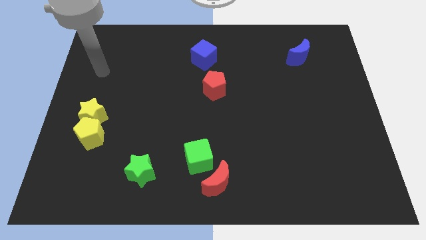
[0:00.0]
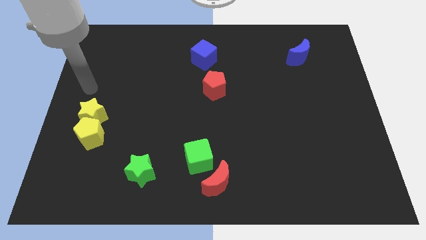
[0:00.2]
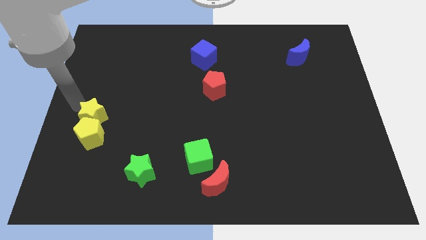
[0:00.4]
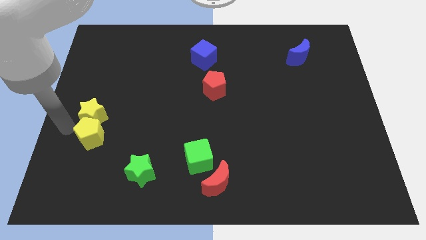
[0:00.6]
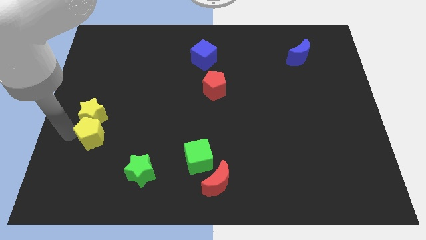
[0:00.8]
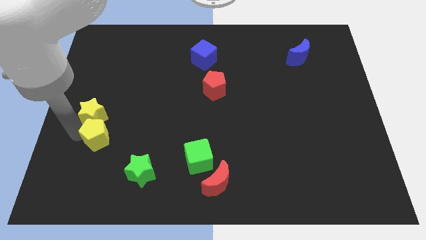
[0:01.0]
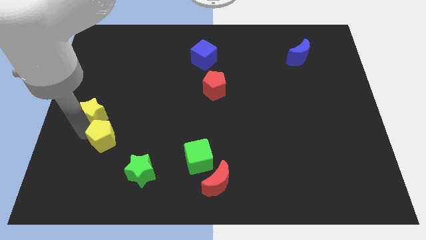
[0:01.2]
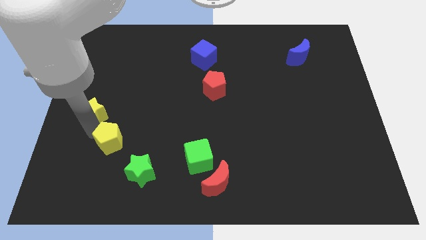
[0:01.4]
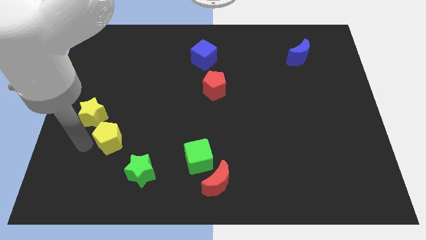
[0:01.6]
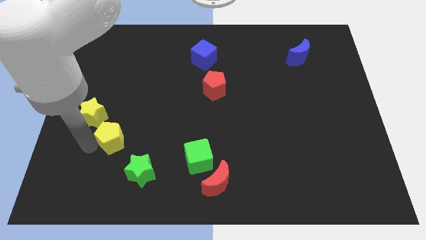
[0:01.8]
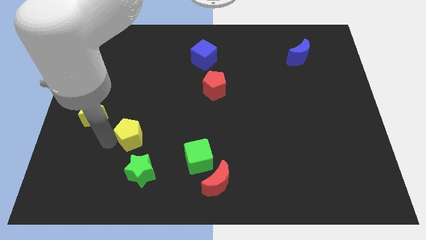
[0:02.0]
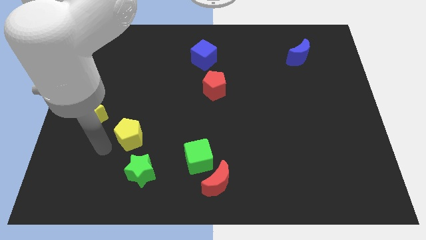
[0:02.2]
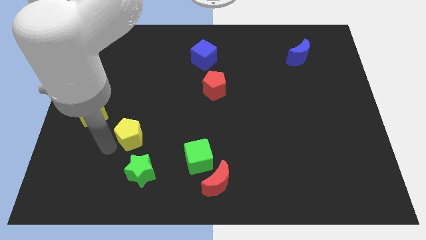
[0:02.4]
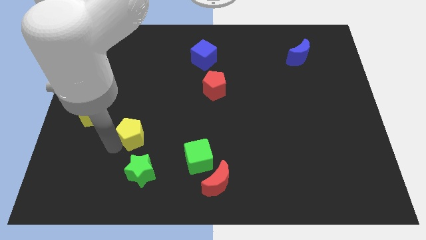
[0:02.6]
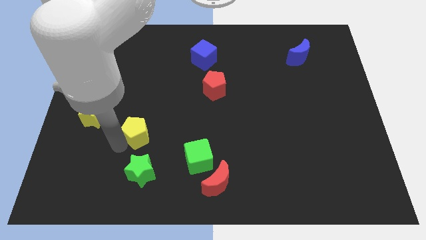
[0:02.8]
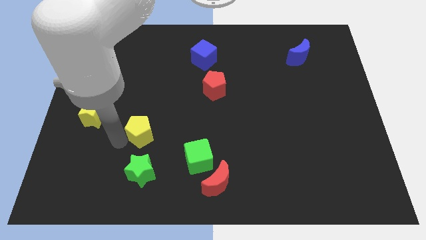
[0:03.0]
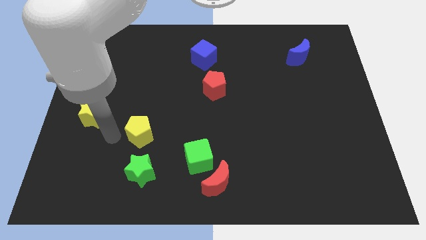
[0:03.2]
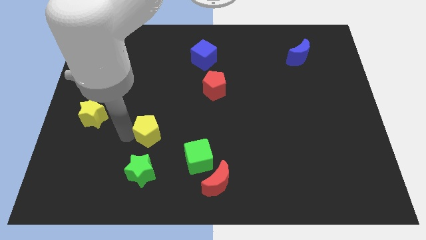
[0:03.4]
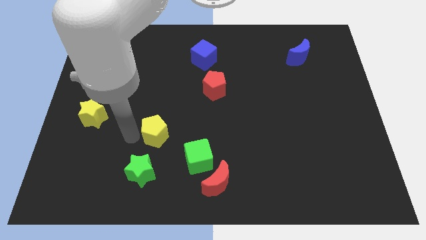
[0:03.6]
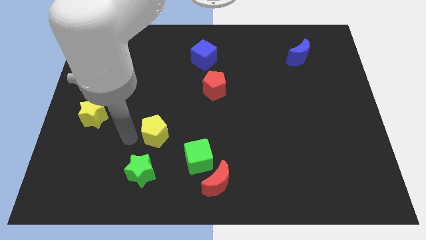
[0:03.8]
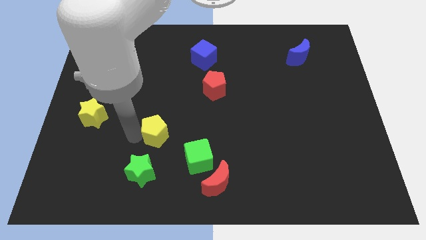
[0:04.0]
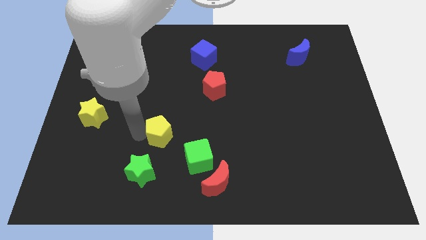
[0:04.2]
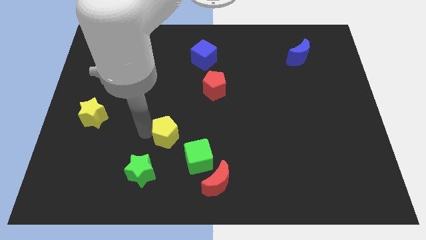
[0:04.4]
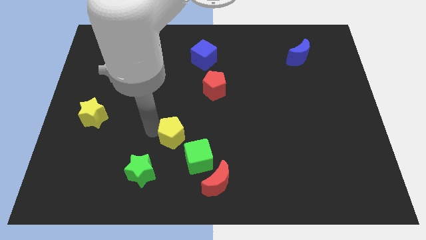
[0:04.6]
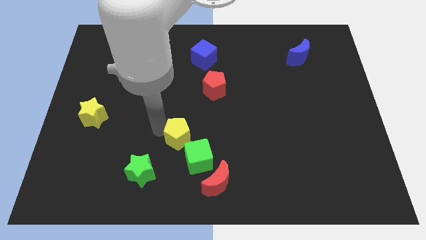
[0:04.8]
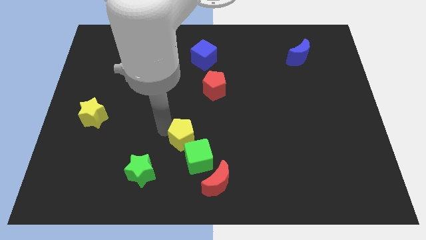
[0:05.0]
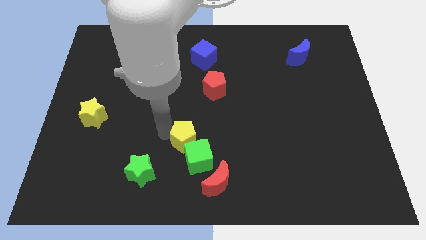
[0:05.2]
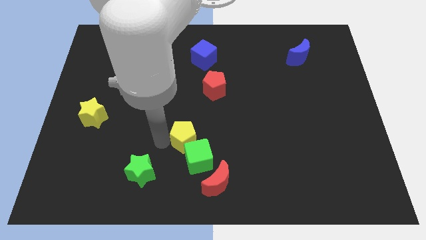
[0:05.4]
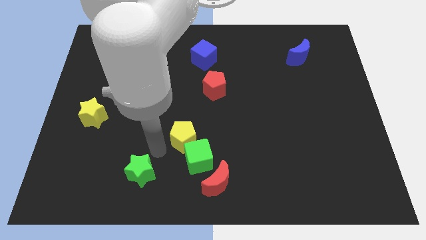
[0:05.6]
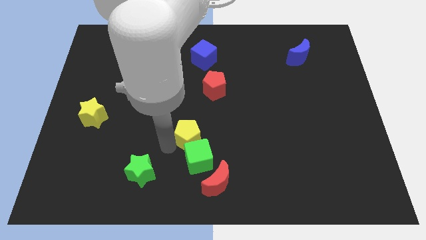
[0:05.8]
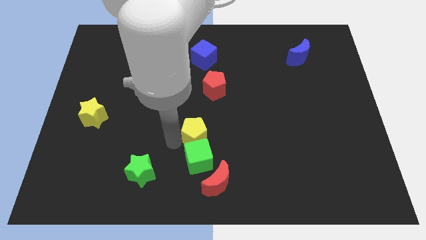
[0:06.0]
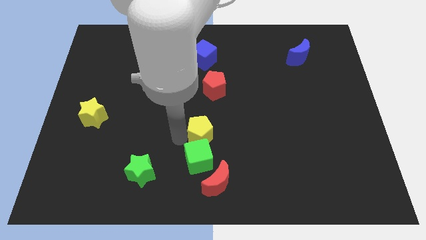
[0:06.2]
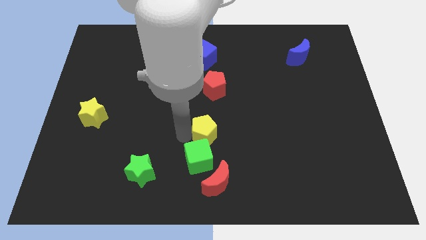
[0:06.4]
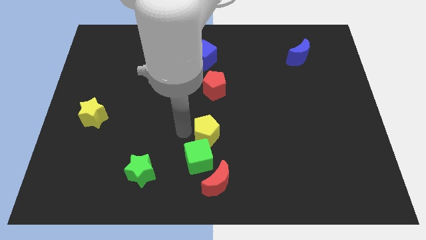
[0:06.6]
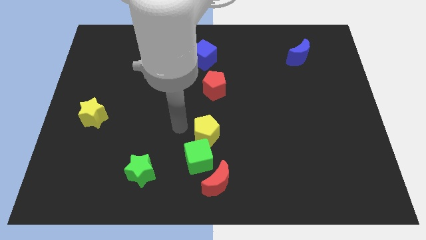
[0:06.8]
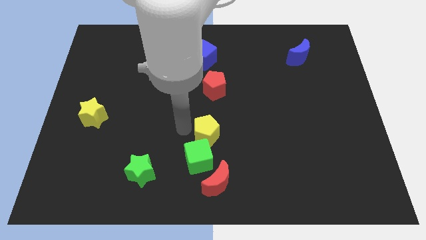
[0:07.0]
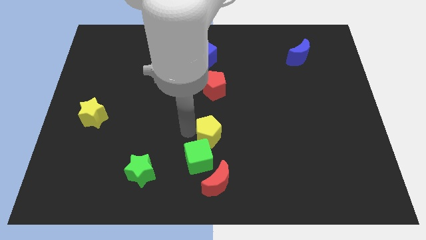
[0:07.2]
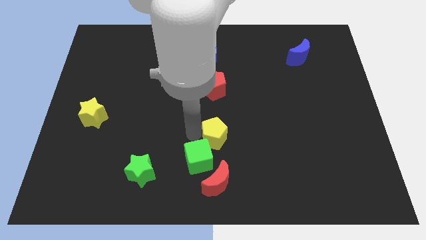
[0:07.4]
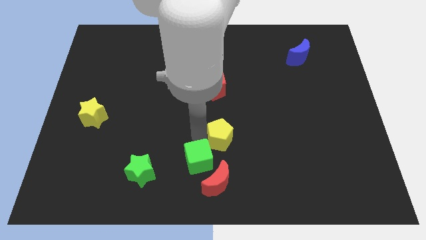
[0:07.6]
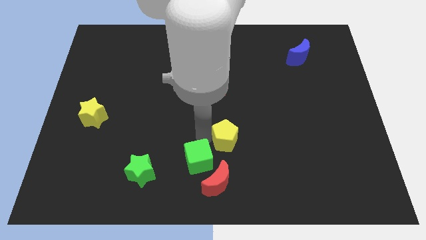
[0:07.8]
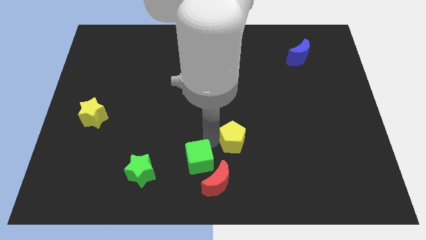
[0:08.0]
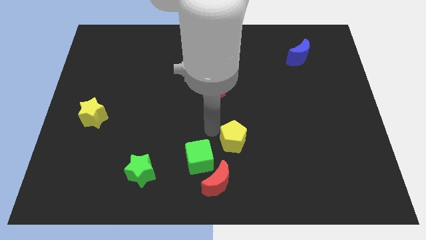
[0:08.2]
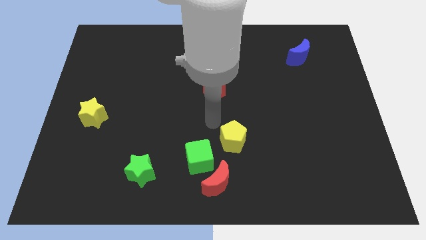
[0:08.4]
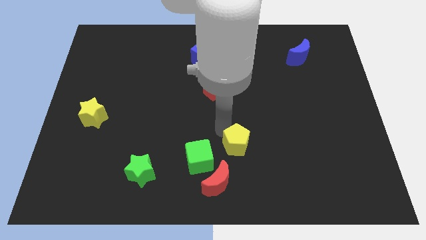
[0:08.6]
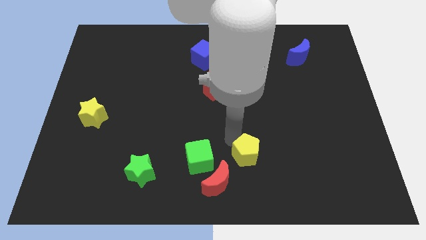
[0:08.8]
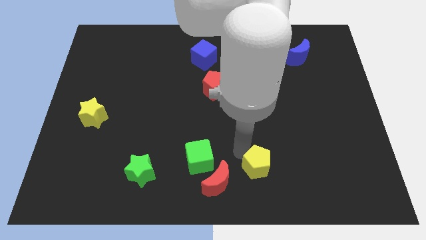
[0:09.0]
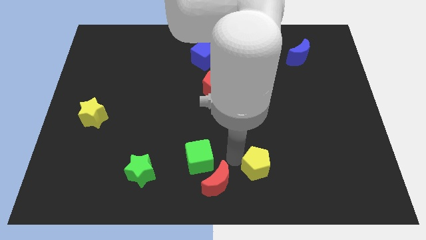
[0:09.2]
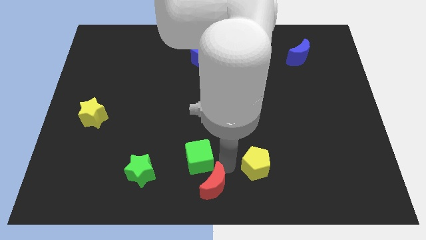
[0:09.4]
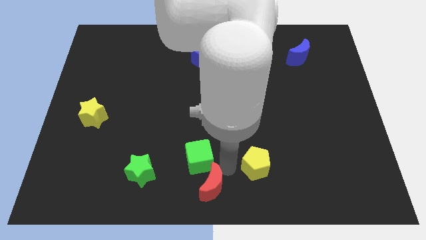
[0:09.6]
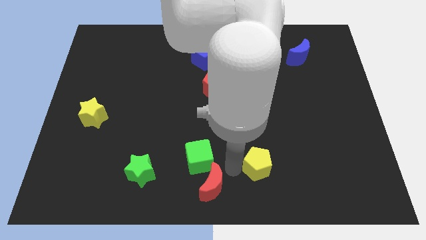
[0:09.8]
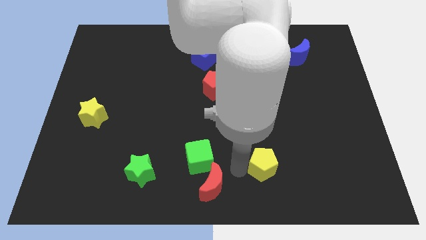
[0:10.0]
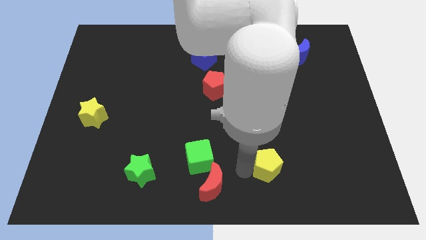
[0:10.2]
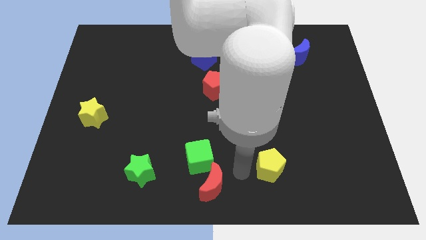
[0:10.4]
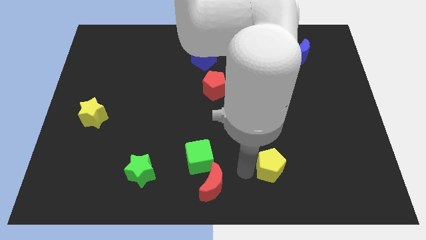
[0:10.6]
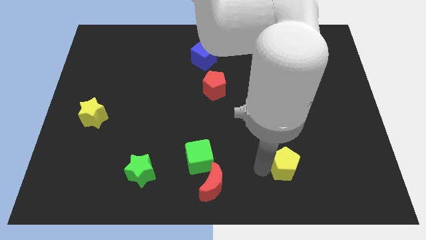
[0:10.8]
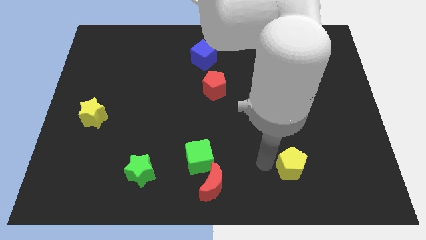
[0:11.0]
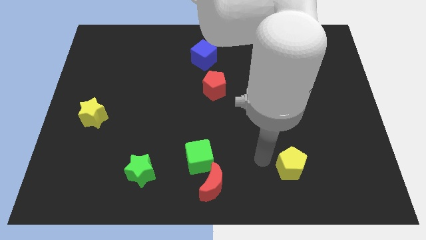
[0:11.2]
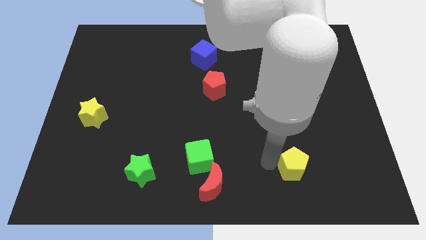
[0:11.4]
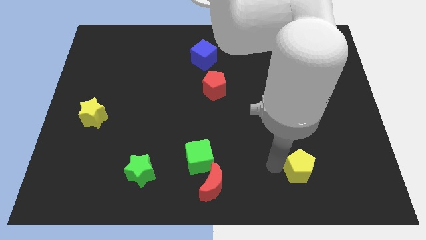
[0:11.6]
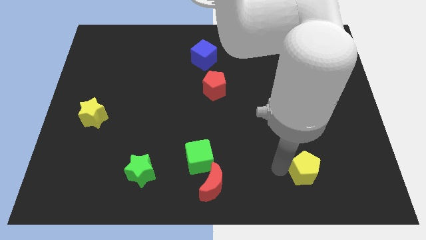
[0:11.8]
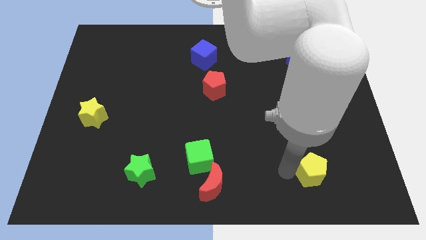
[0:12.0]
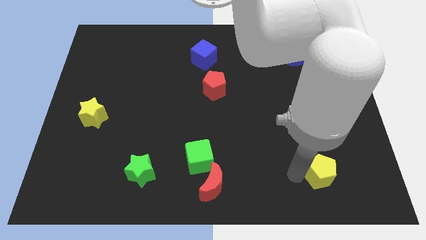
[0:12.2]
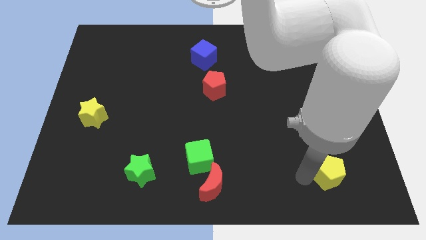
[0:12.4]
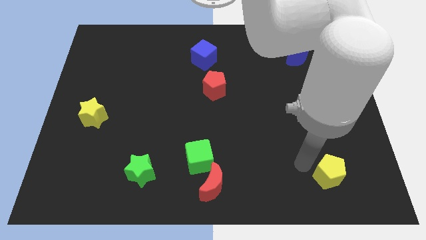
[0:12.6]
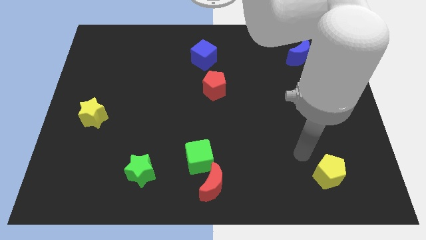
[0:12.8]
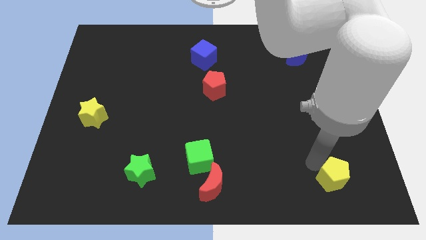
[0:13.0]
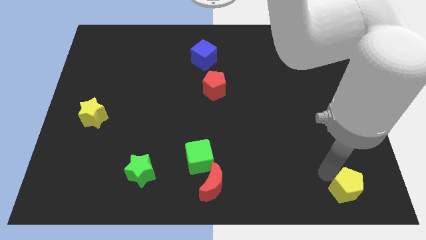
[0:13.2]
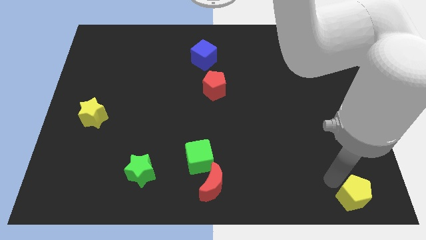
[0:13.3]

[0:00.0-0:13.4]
put the yellow pentagon to the bottom right
